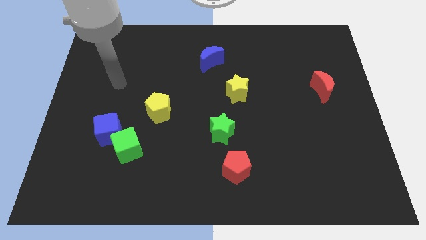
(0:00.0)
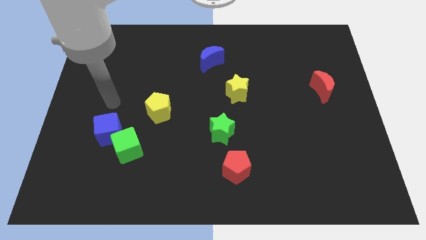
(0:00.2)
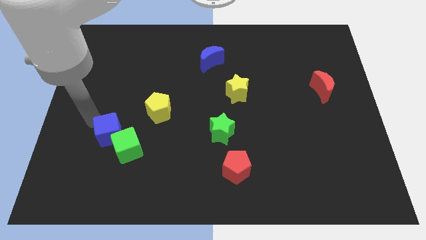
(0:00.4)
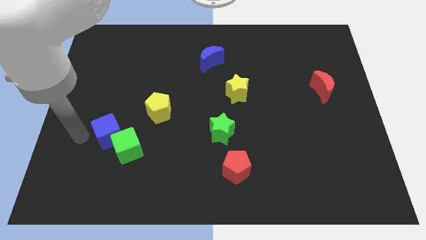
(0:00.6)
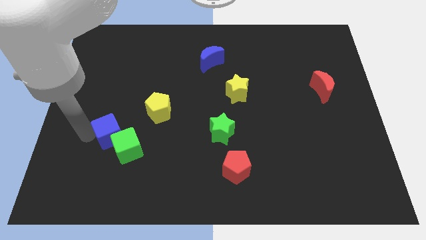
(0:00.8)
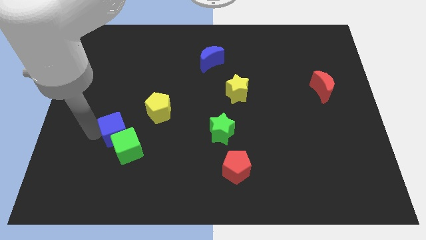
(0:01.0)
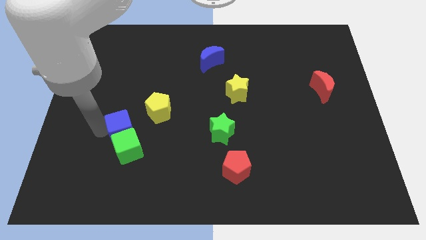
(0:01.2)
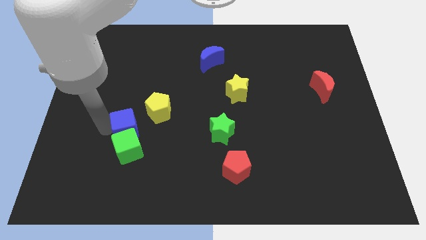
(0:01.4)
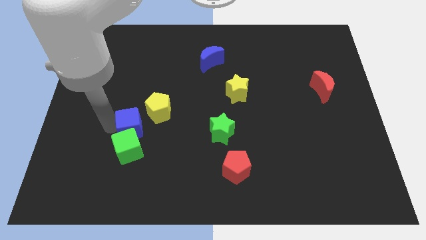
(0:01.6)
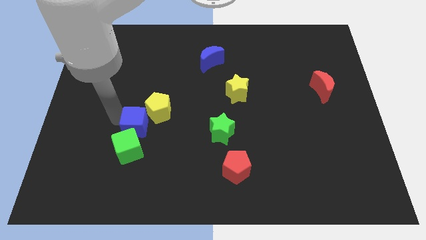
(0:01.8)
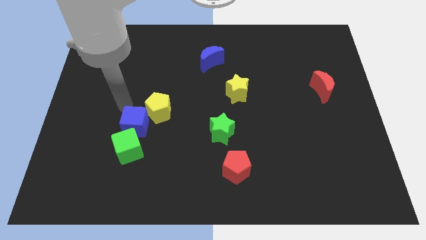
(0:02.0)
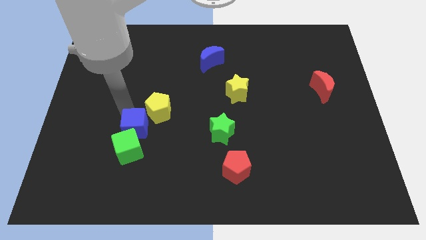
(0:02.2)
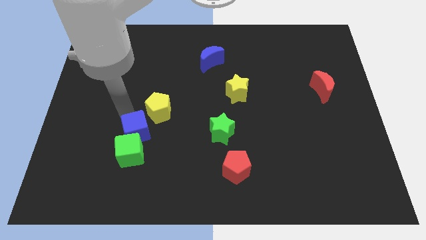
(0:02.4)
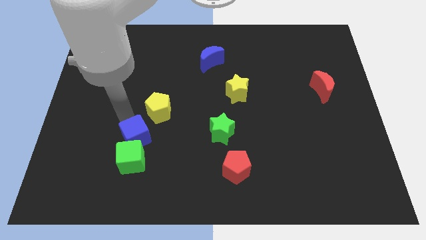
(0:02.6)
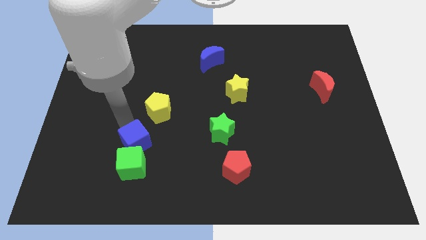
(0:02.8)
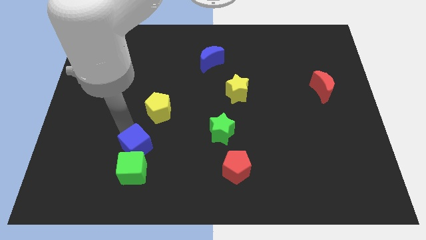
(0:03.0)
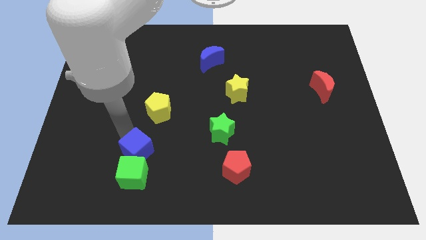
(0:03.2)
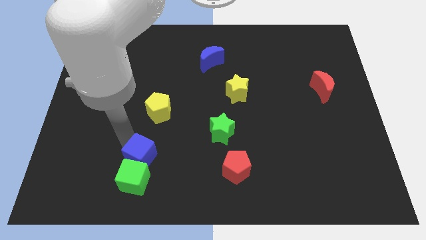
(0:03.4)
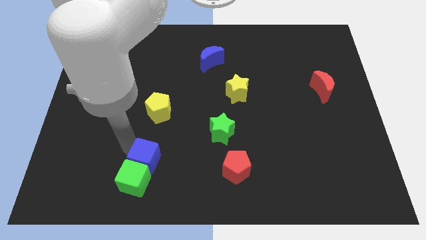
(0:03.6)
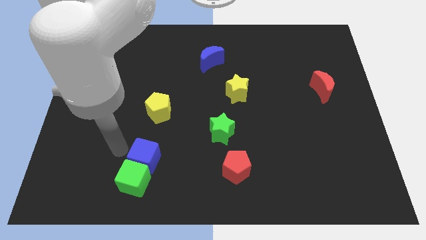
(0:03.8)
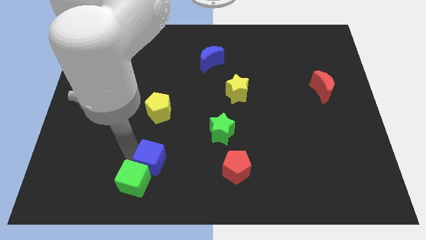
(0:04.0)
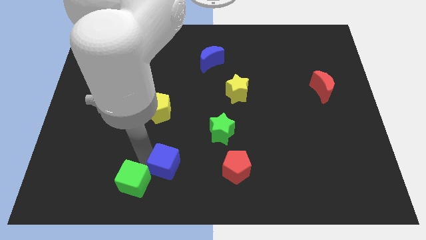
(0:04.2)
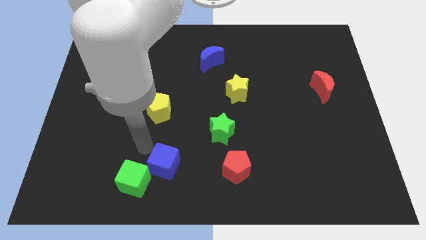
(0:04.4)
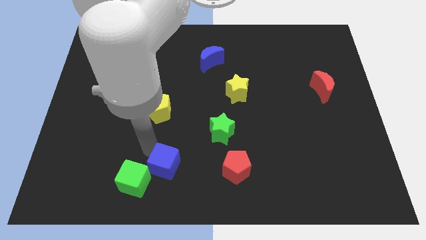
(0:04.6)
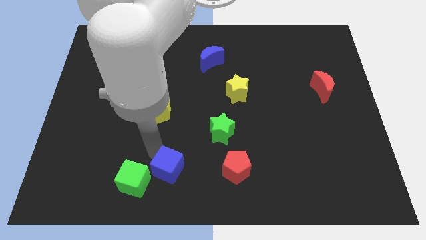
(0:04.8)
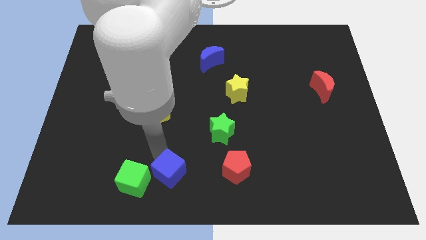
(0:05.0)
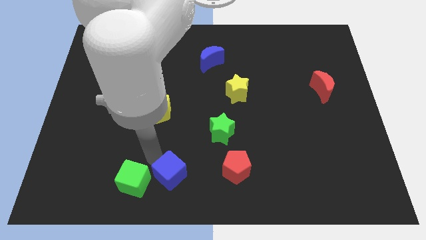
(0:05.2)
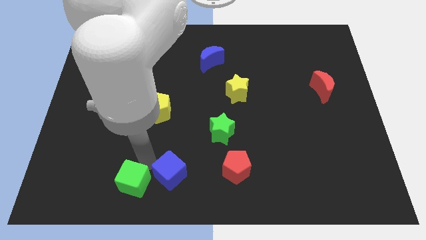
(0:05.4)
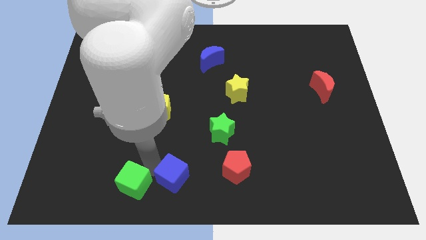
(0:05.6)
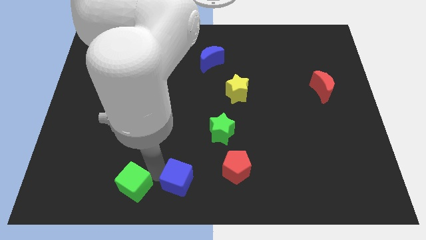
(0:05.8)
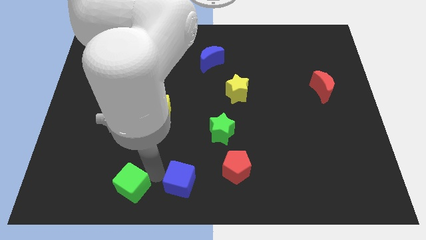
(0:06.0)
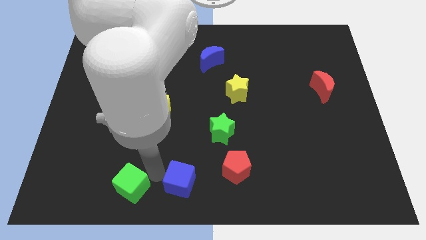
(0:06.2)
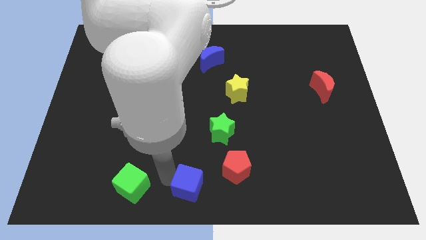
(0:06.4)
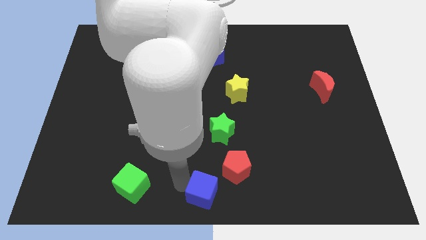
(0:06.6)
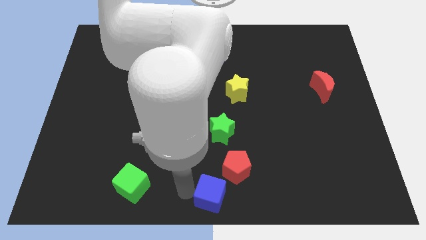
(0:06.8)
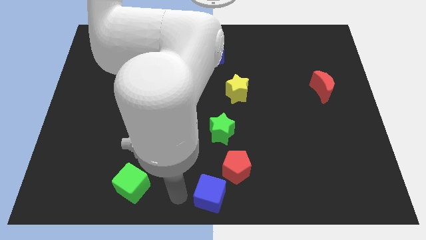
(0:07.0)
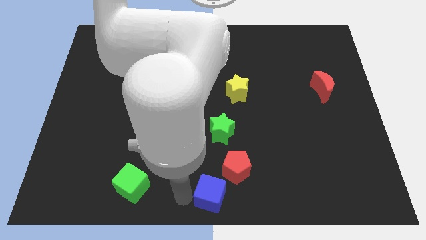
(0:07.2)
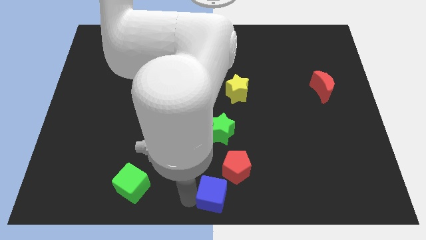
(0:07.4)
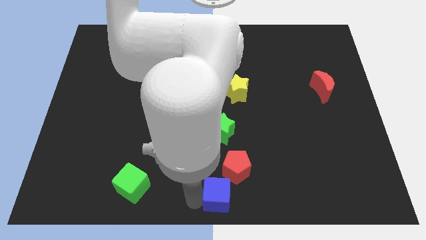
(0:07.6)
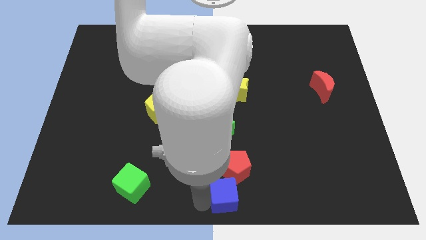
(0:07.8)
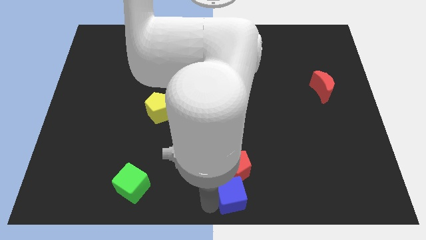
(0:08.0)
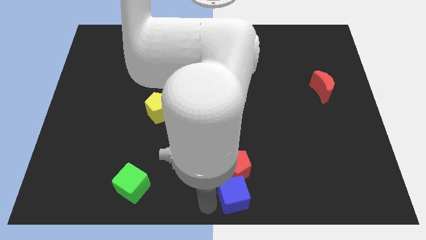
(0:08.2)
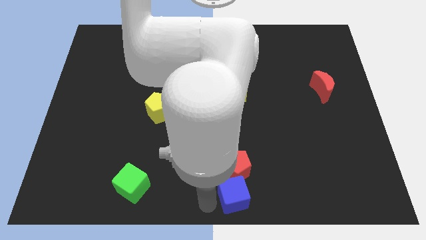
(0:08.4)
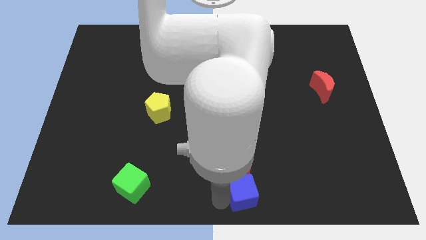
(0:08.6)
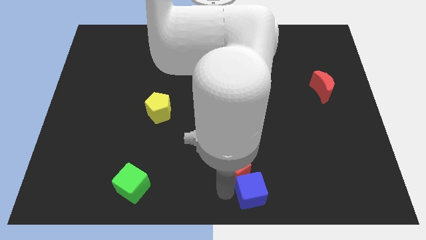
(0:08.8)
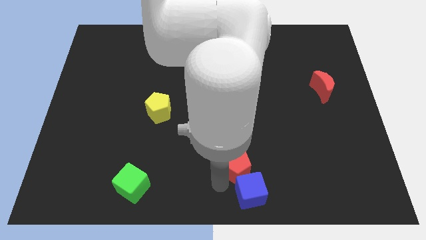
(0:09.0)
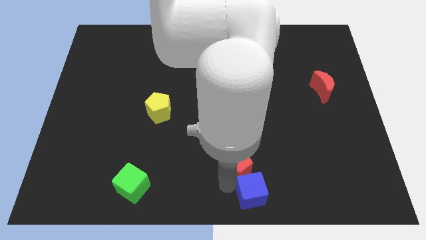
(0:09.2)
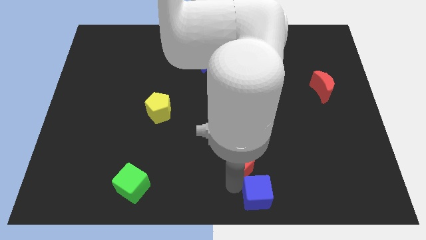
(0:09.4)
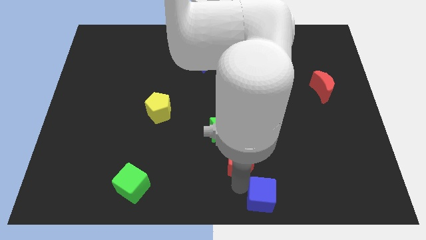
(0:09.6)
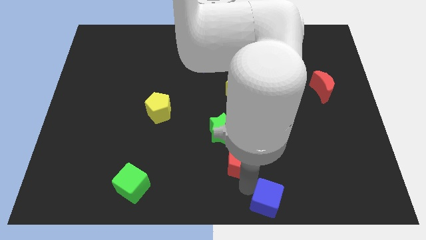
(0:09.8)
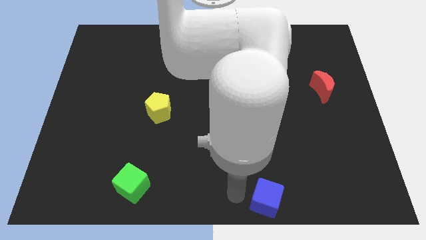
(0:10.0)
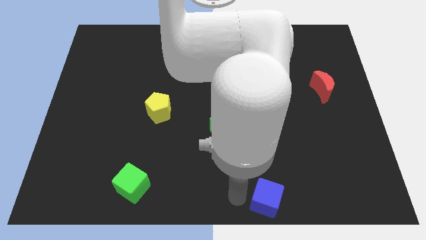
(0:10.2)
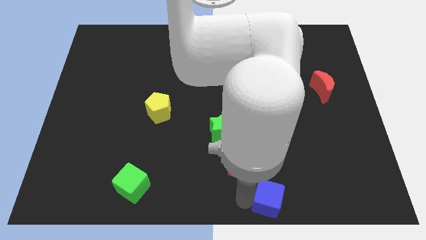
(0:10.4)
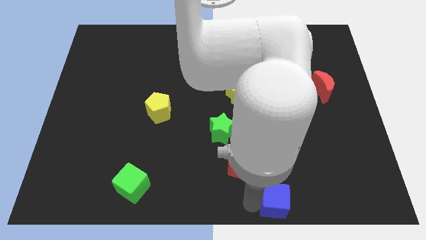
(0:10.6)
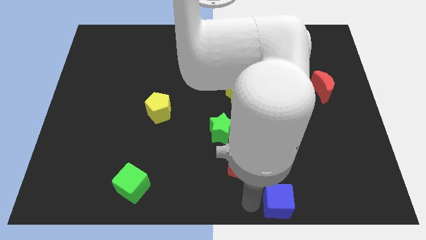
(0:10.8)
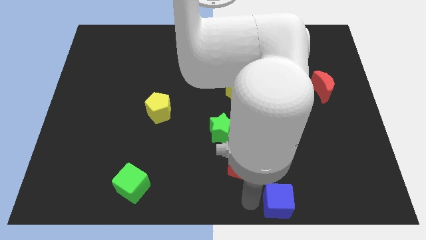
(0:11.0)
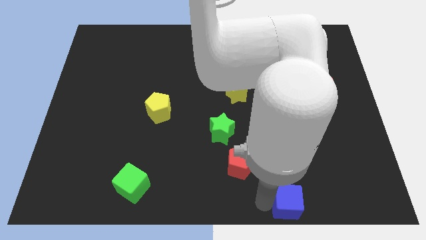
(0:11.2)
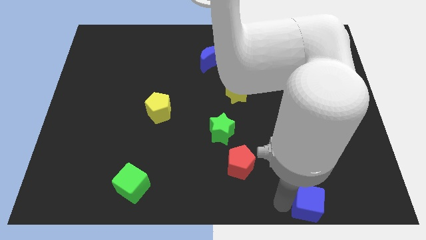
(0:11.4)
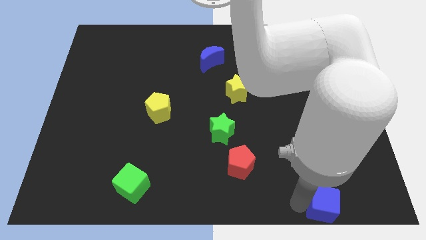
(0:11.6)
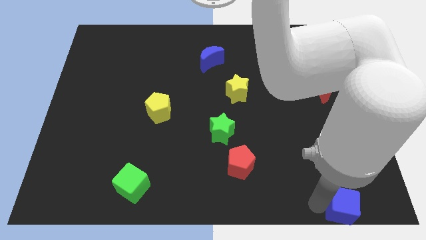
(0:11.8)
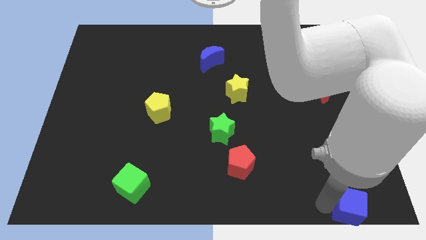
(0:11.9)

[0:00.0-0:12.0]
push the blue cube to the bottom right corner
